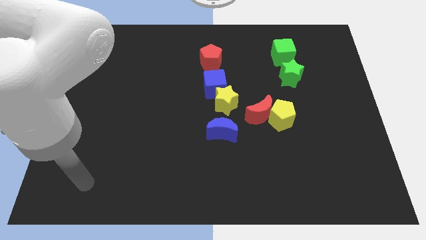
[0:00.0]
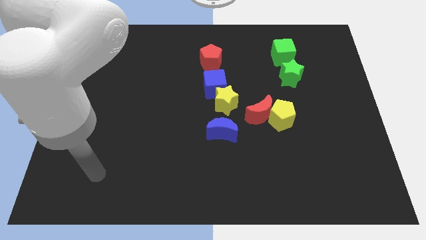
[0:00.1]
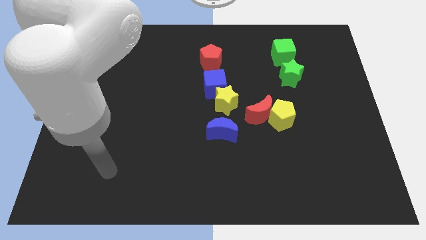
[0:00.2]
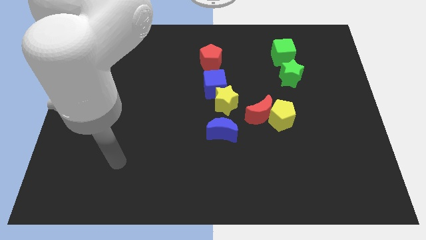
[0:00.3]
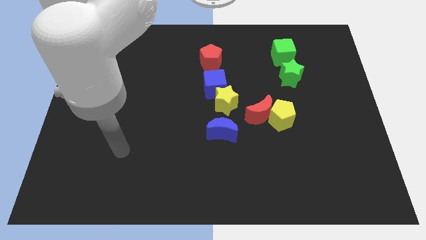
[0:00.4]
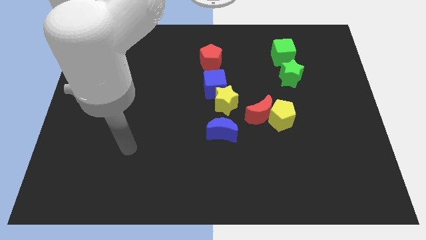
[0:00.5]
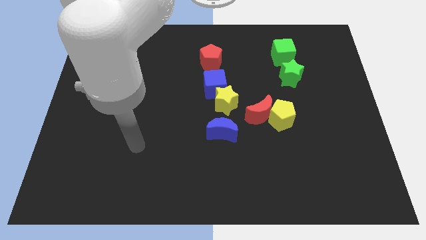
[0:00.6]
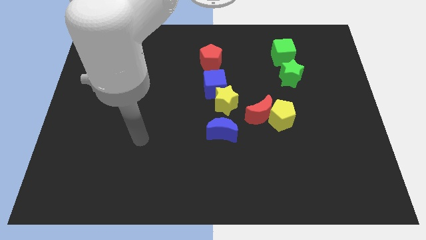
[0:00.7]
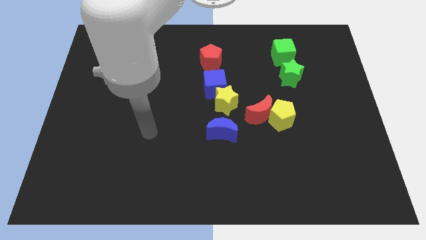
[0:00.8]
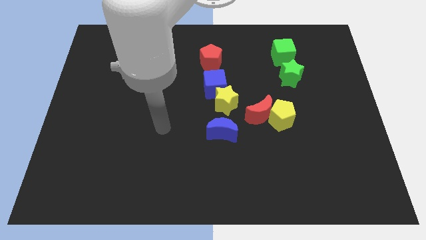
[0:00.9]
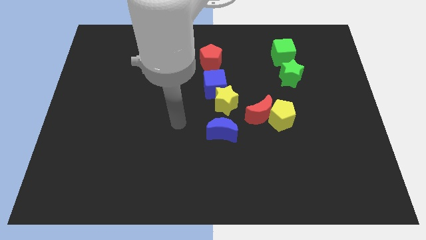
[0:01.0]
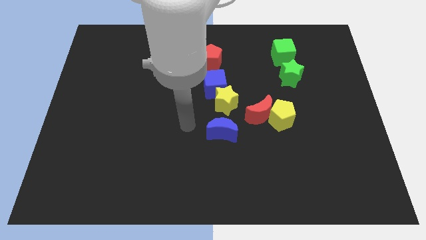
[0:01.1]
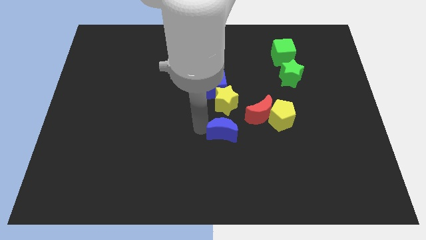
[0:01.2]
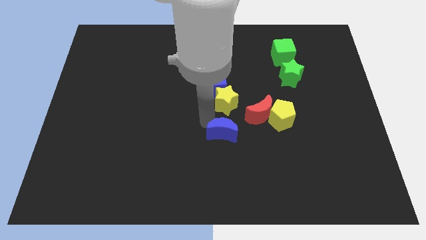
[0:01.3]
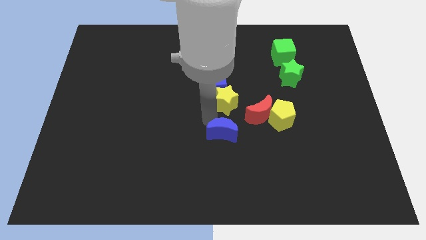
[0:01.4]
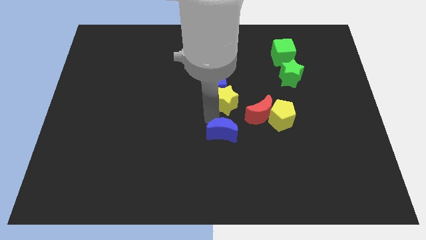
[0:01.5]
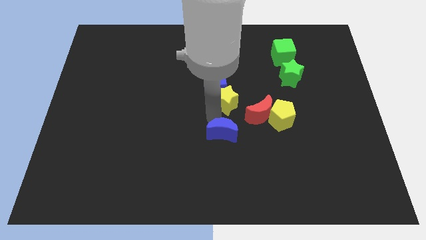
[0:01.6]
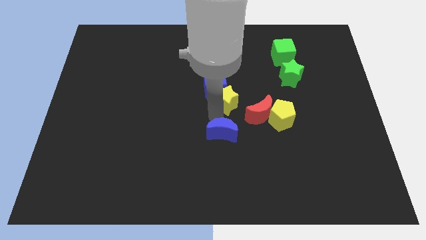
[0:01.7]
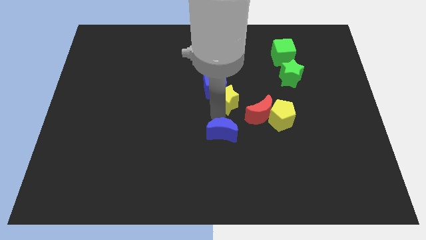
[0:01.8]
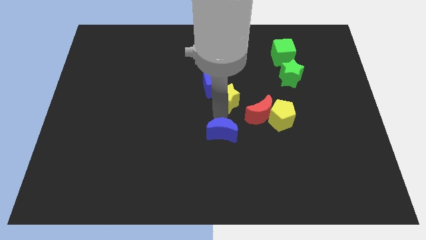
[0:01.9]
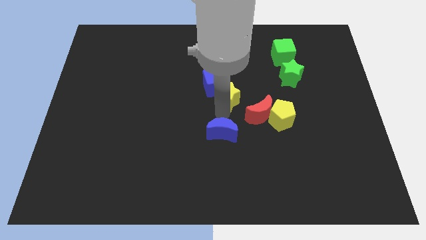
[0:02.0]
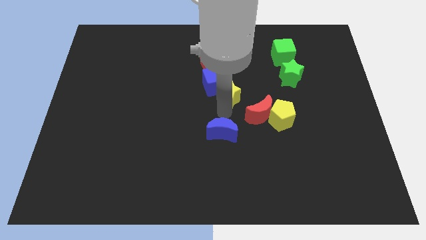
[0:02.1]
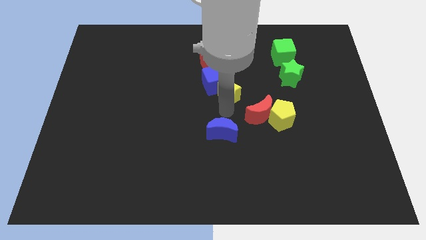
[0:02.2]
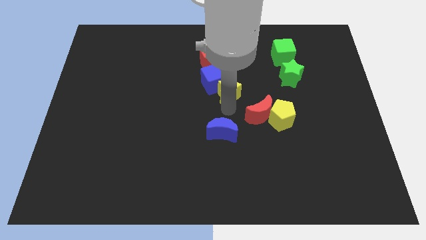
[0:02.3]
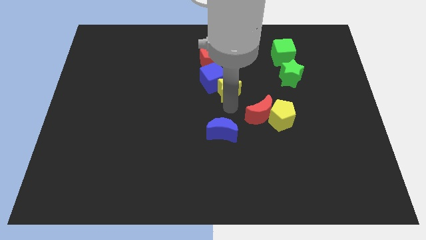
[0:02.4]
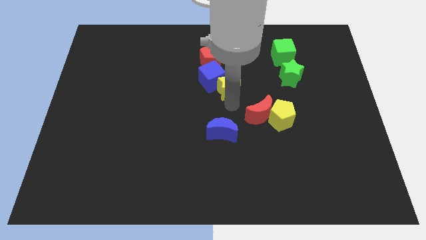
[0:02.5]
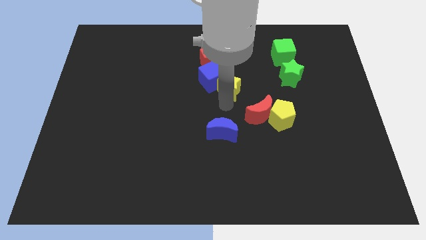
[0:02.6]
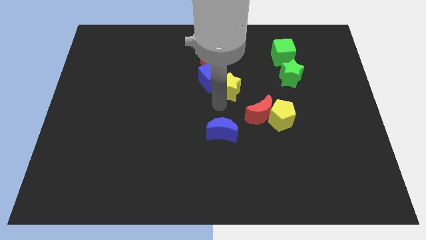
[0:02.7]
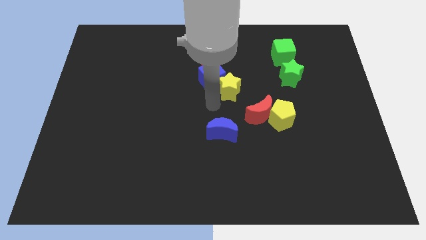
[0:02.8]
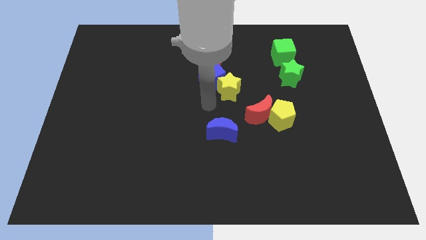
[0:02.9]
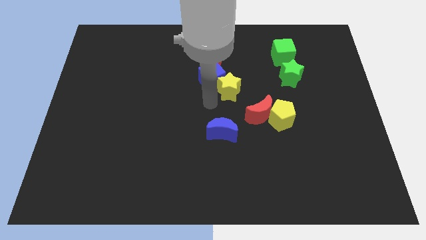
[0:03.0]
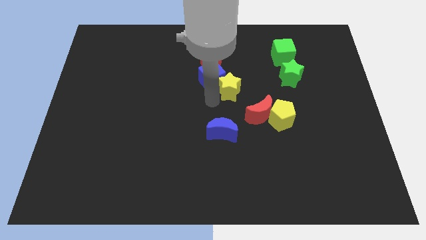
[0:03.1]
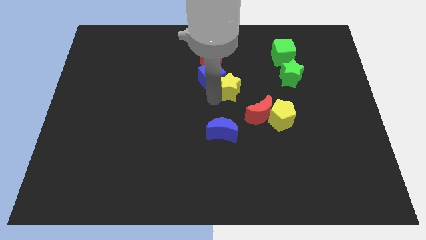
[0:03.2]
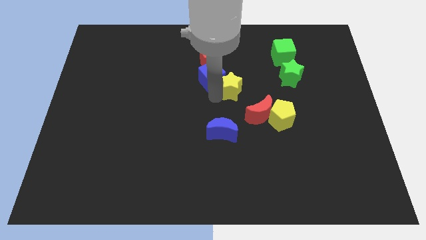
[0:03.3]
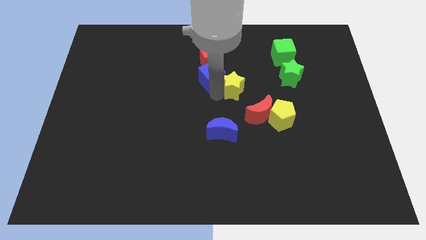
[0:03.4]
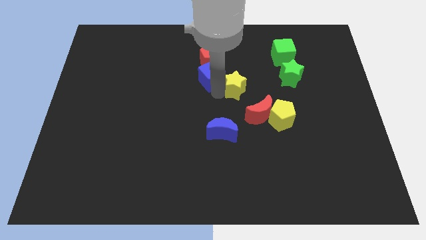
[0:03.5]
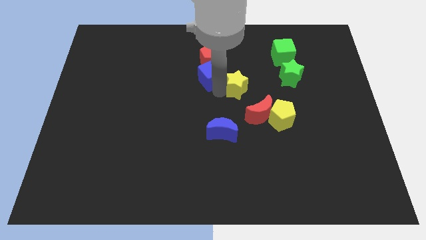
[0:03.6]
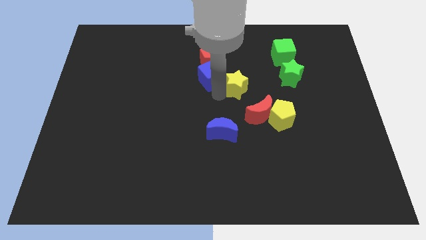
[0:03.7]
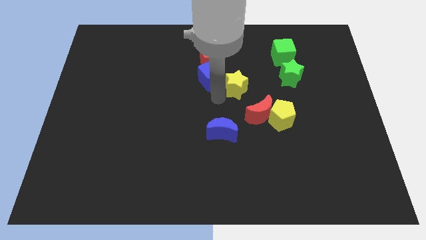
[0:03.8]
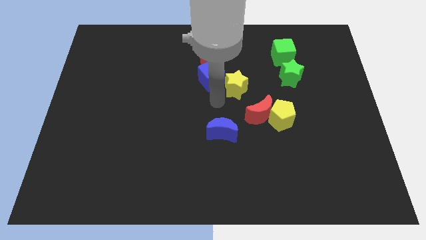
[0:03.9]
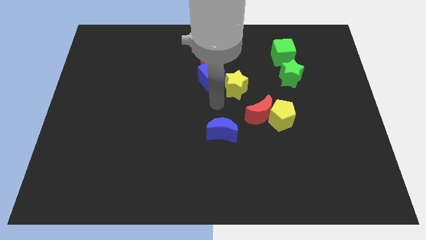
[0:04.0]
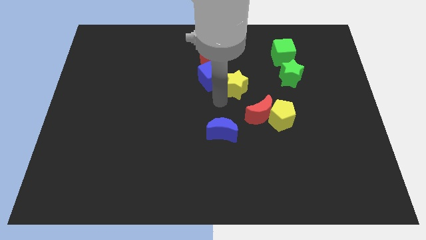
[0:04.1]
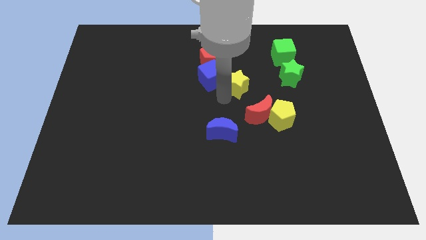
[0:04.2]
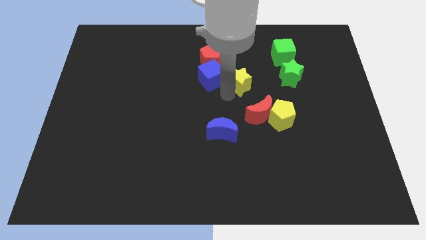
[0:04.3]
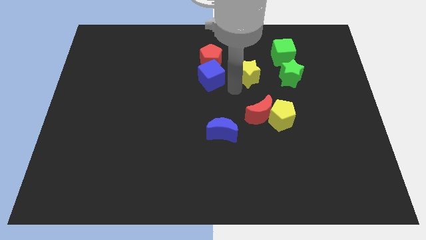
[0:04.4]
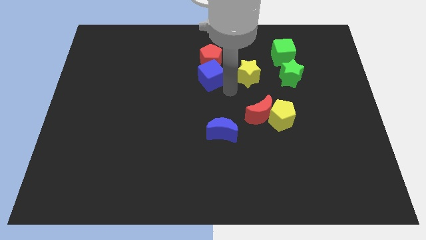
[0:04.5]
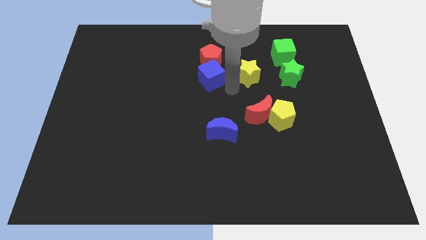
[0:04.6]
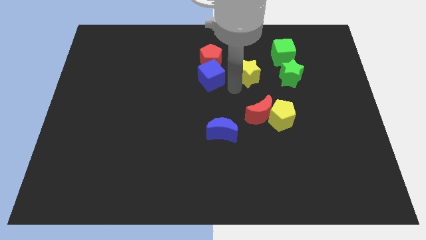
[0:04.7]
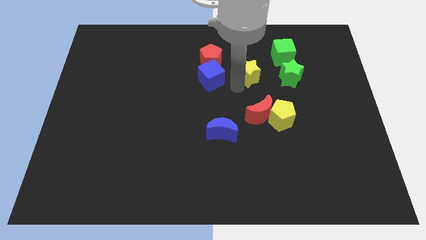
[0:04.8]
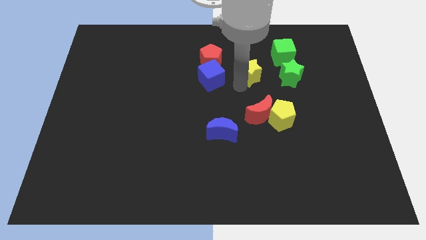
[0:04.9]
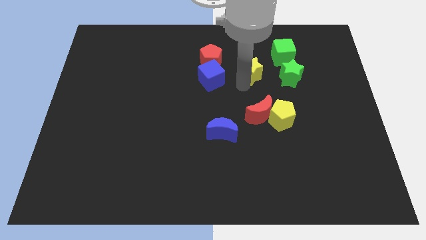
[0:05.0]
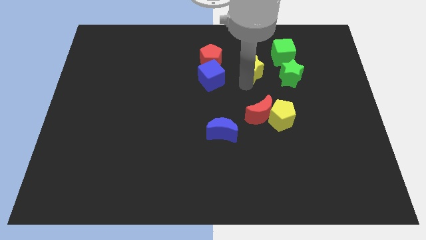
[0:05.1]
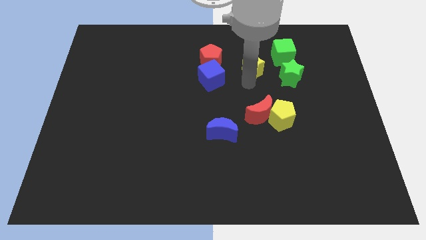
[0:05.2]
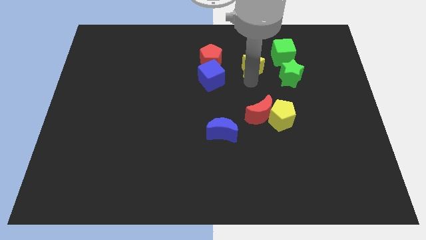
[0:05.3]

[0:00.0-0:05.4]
slide the yellow star to the top left side of the green star

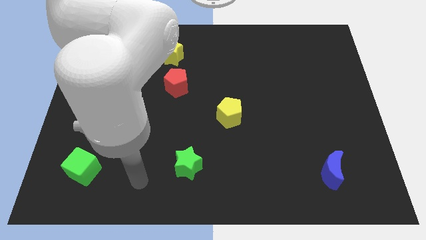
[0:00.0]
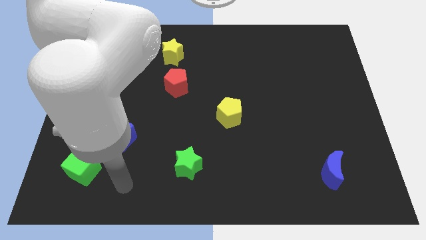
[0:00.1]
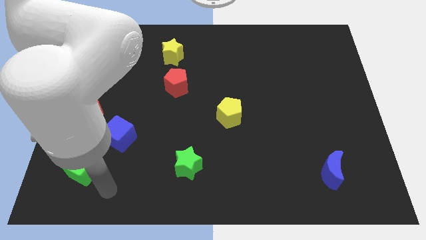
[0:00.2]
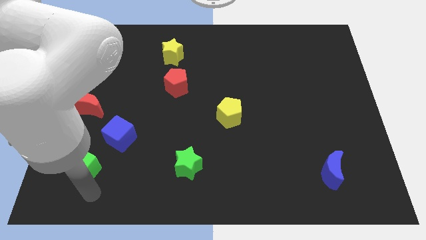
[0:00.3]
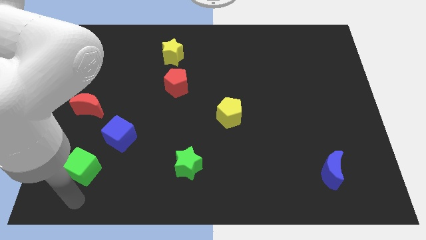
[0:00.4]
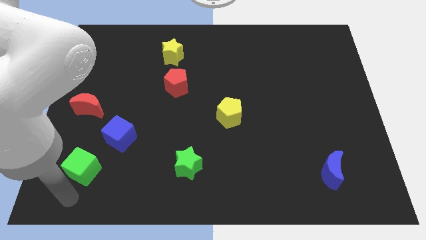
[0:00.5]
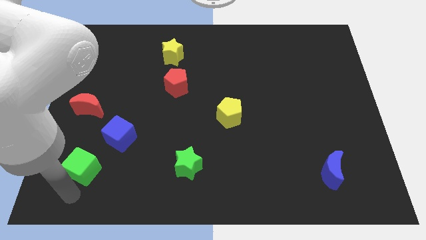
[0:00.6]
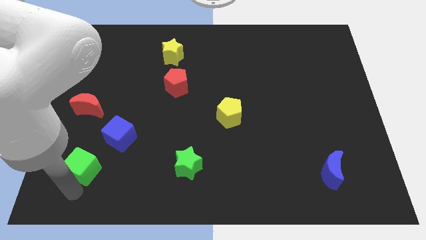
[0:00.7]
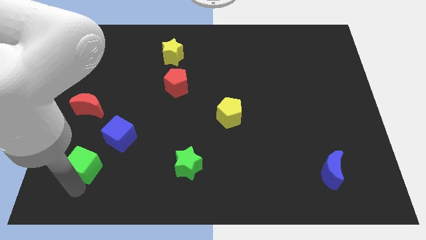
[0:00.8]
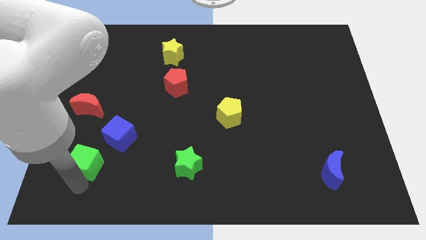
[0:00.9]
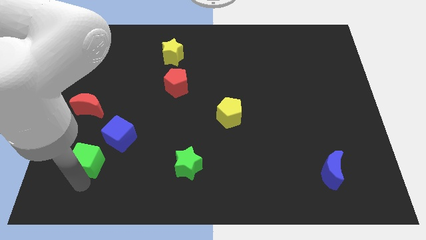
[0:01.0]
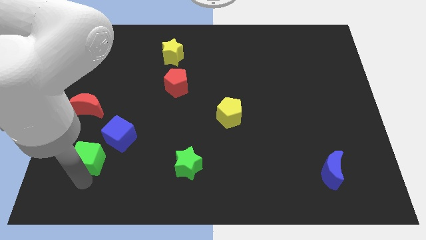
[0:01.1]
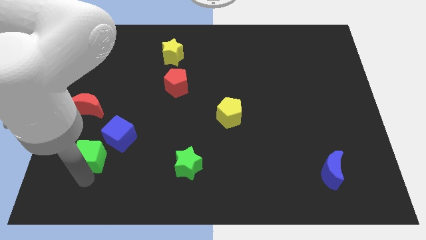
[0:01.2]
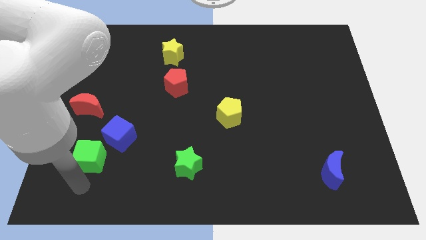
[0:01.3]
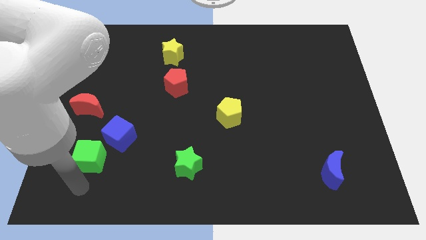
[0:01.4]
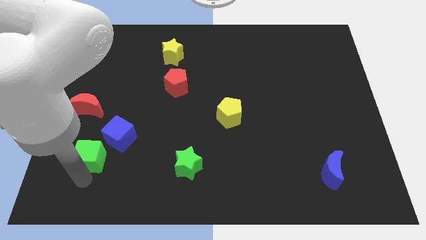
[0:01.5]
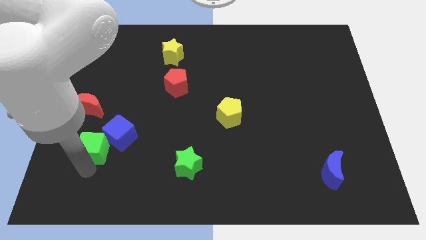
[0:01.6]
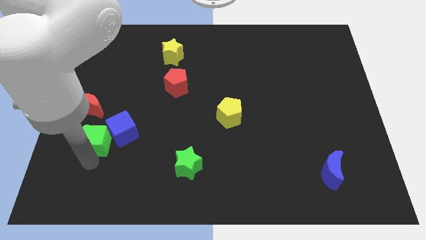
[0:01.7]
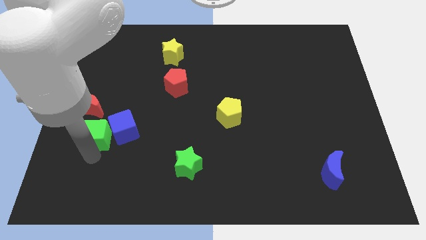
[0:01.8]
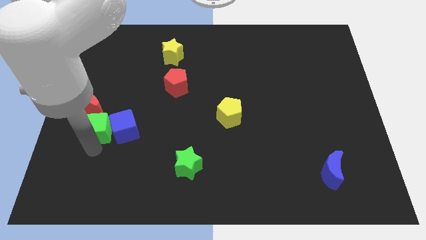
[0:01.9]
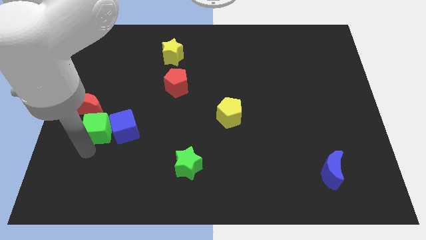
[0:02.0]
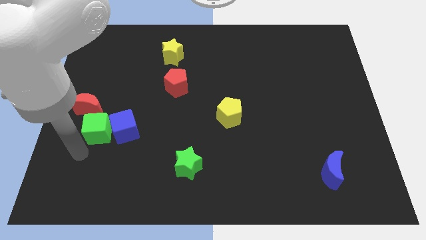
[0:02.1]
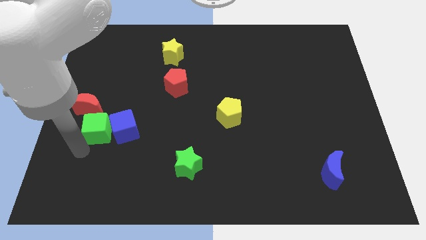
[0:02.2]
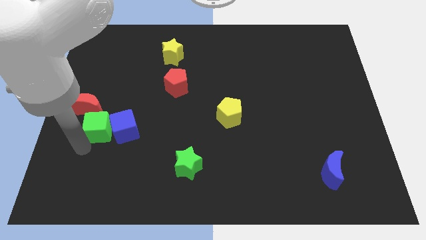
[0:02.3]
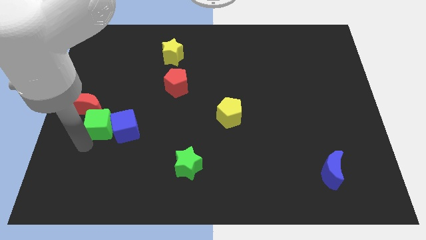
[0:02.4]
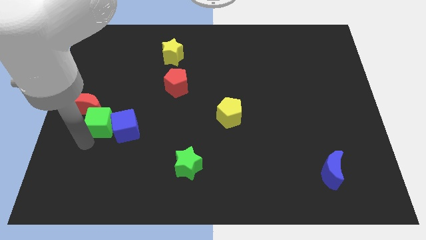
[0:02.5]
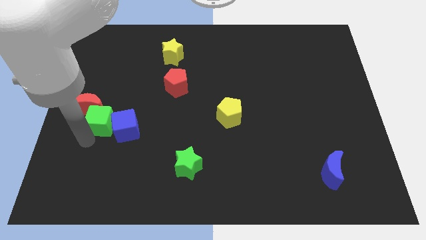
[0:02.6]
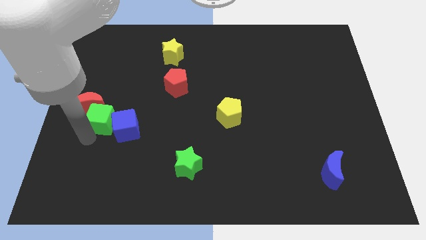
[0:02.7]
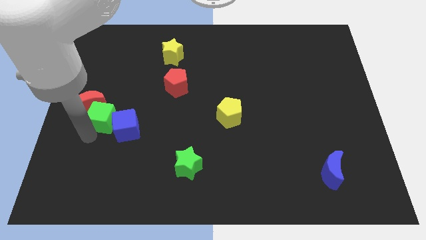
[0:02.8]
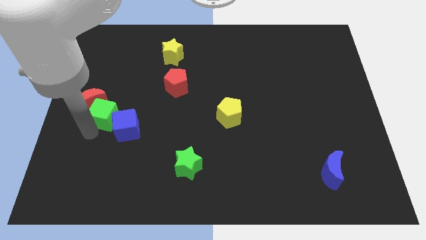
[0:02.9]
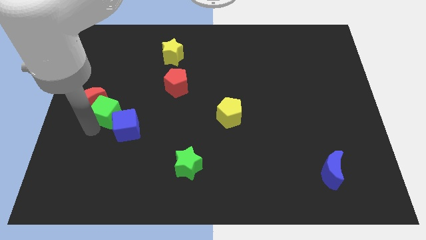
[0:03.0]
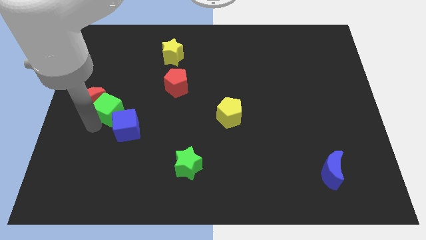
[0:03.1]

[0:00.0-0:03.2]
push the green cube to the top of the blue cube
